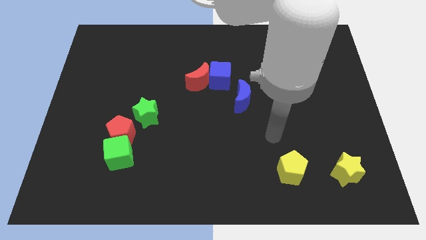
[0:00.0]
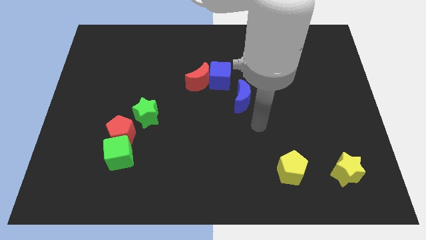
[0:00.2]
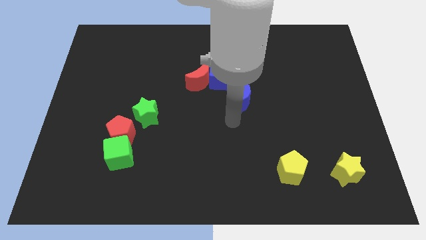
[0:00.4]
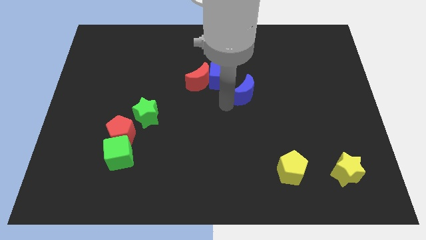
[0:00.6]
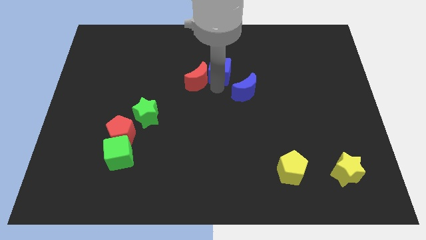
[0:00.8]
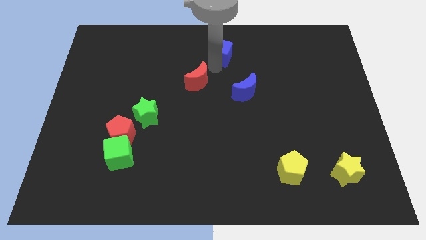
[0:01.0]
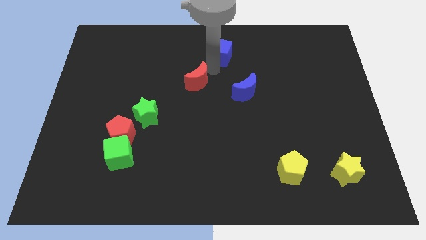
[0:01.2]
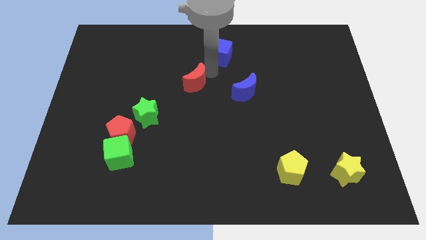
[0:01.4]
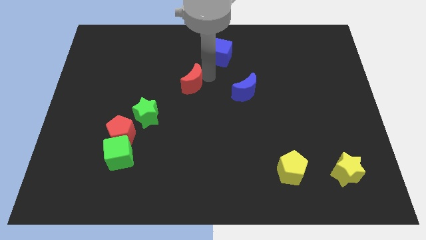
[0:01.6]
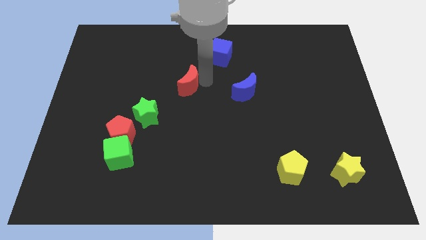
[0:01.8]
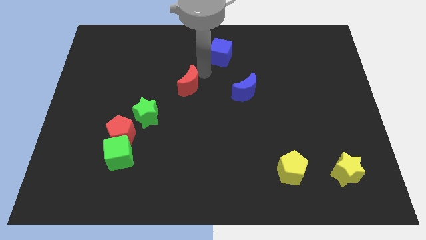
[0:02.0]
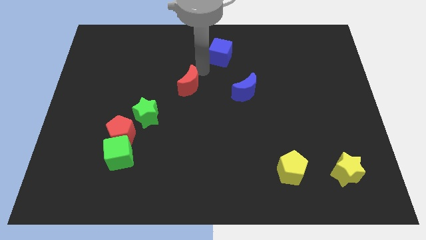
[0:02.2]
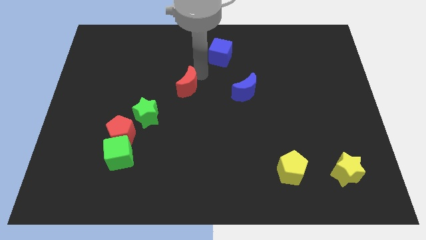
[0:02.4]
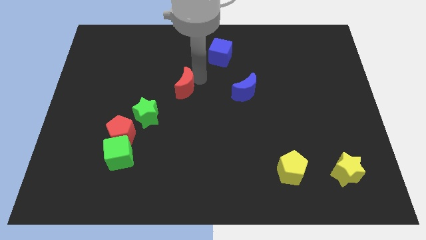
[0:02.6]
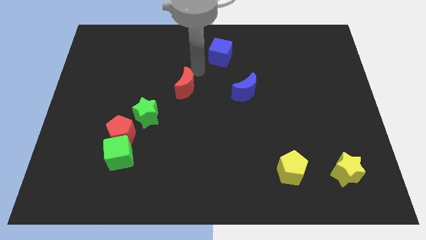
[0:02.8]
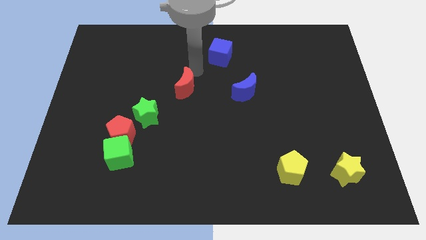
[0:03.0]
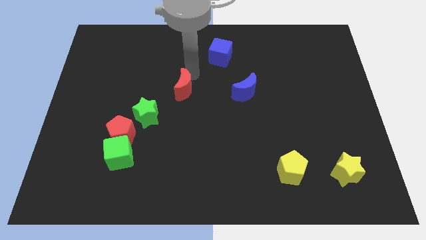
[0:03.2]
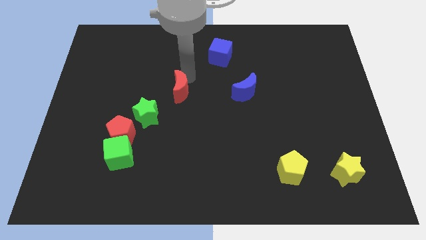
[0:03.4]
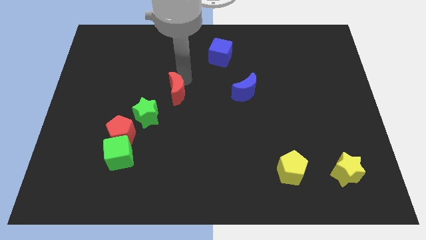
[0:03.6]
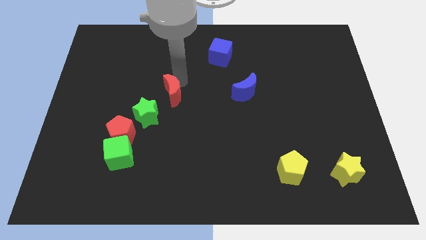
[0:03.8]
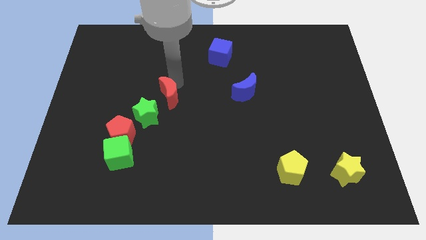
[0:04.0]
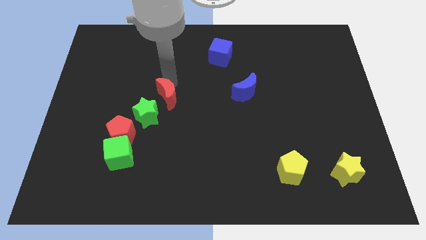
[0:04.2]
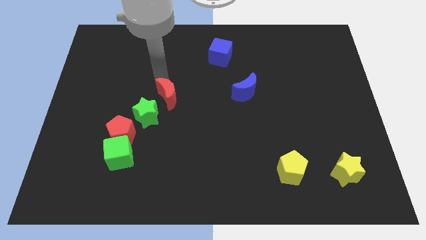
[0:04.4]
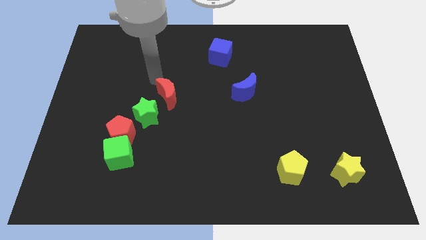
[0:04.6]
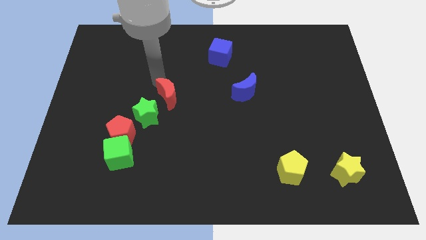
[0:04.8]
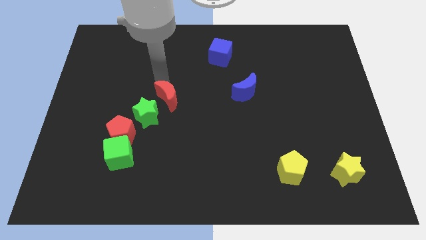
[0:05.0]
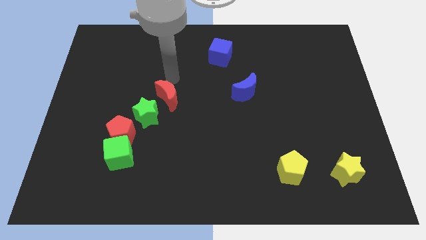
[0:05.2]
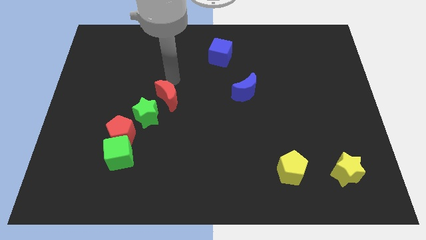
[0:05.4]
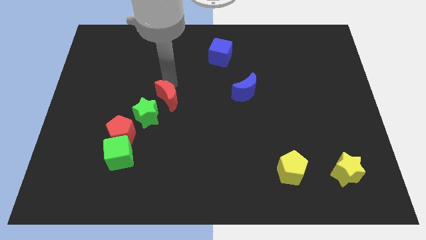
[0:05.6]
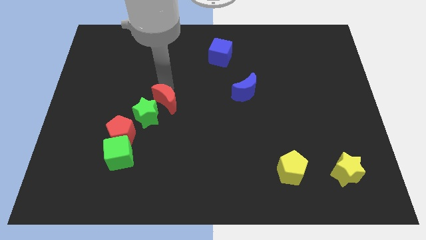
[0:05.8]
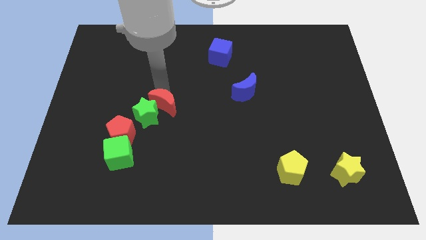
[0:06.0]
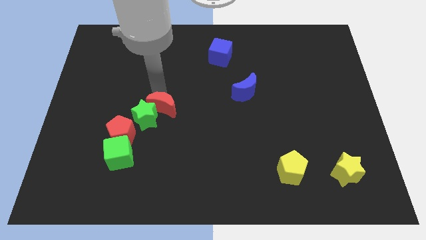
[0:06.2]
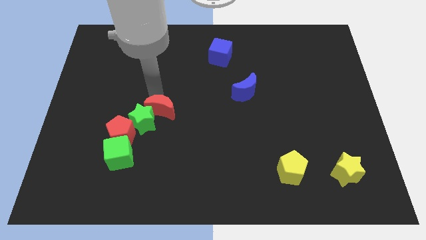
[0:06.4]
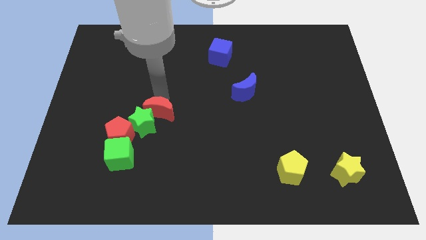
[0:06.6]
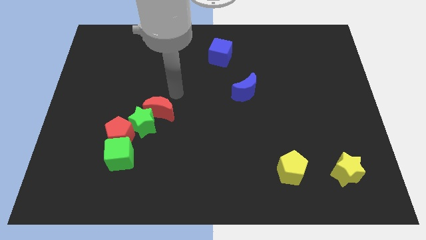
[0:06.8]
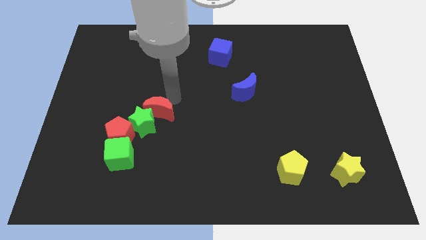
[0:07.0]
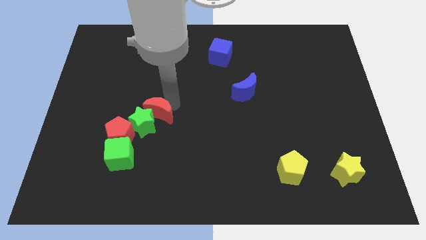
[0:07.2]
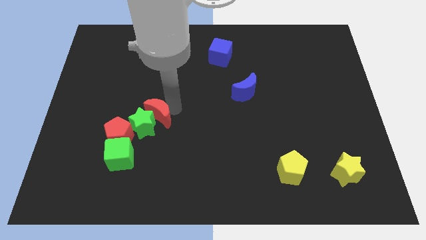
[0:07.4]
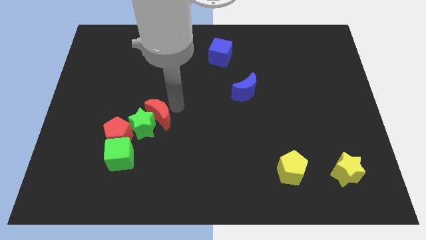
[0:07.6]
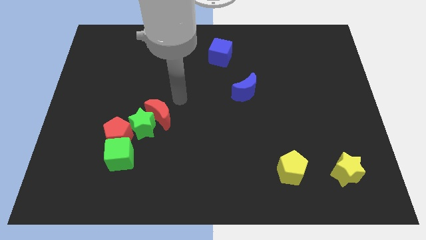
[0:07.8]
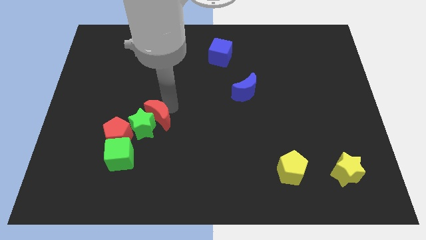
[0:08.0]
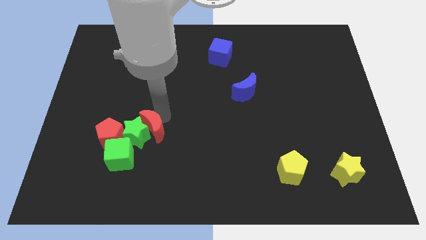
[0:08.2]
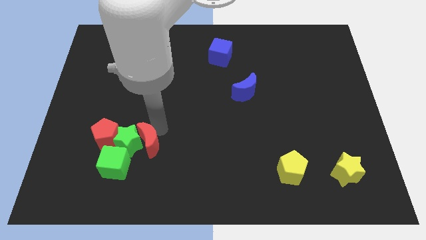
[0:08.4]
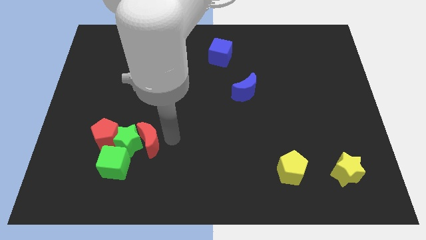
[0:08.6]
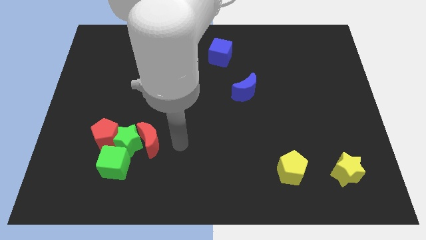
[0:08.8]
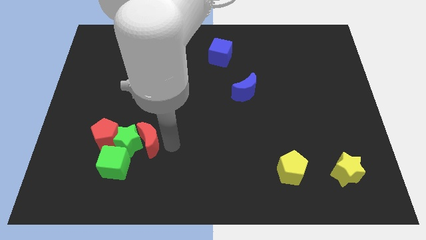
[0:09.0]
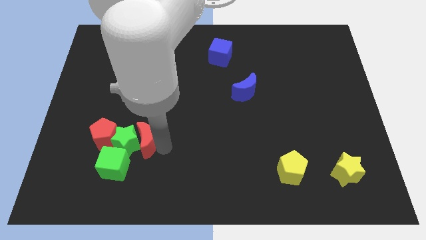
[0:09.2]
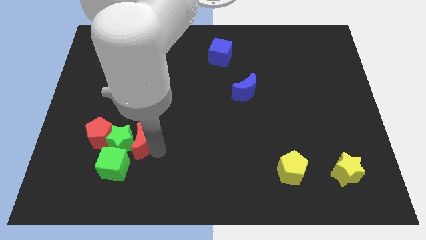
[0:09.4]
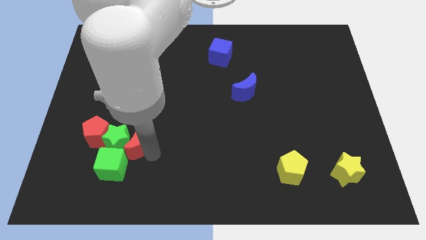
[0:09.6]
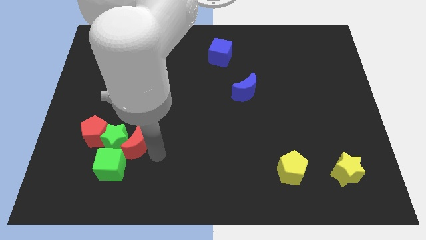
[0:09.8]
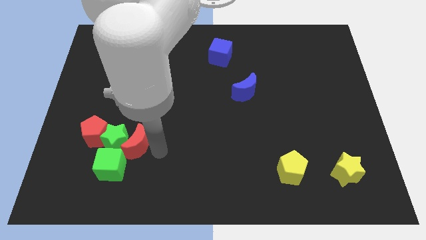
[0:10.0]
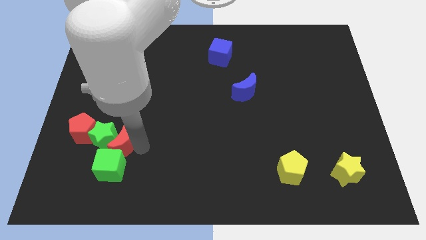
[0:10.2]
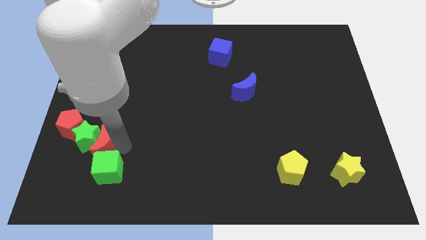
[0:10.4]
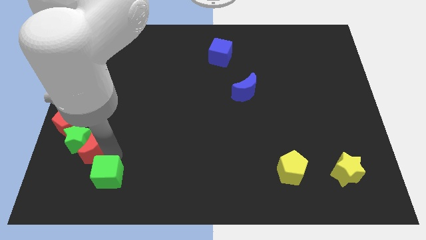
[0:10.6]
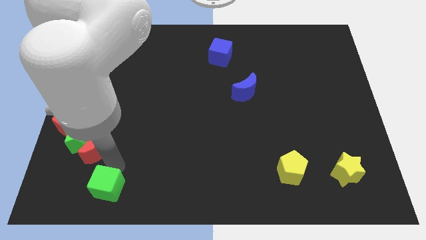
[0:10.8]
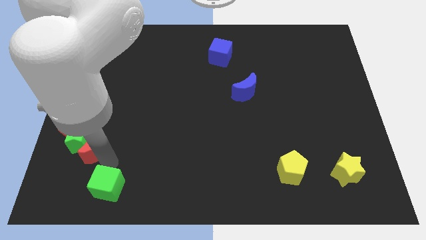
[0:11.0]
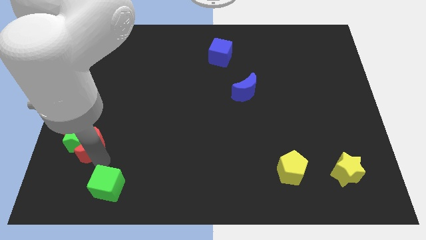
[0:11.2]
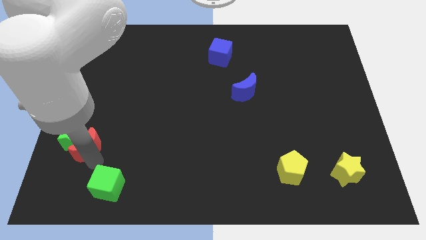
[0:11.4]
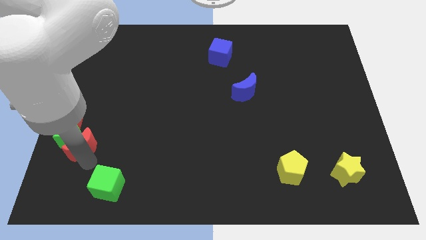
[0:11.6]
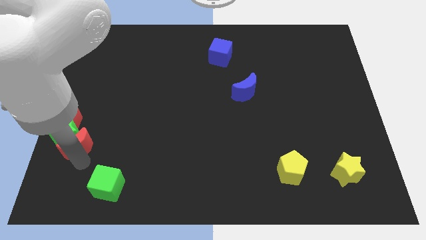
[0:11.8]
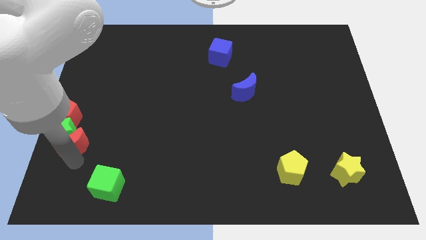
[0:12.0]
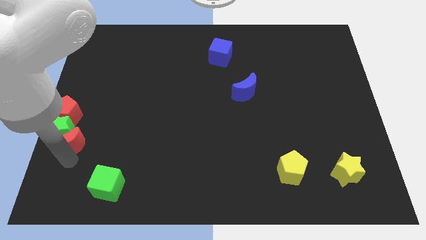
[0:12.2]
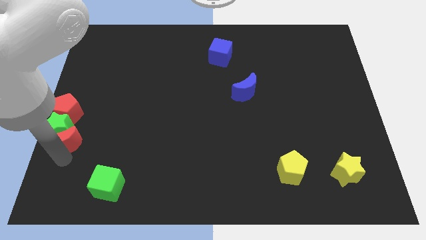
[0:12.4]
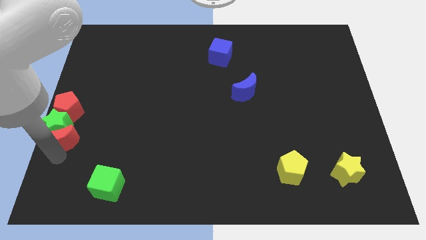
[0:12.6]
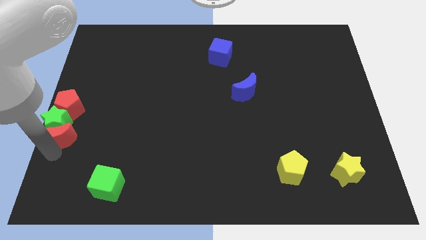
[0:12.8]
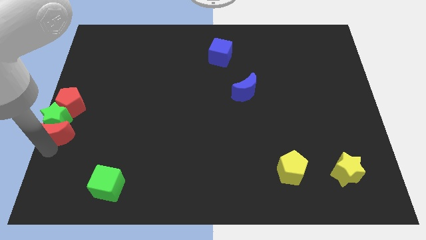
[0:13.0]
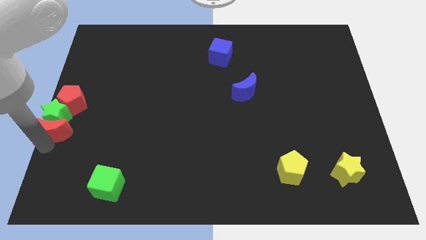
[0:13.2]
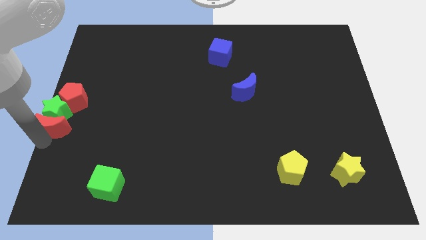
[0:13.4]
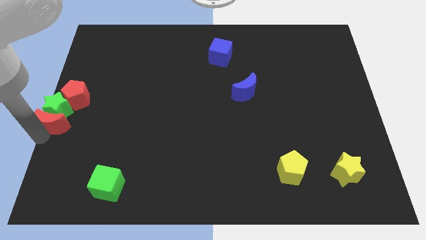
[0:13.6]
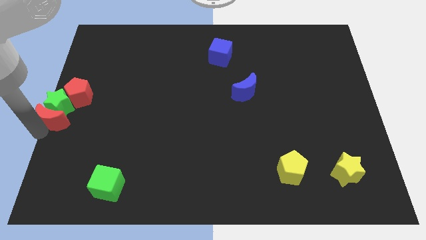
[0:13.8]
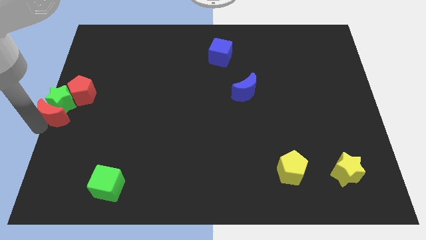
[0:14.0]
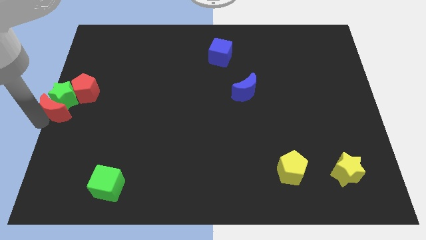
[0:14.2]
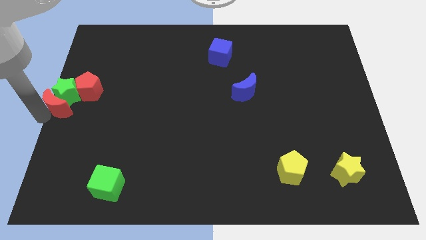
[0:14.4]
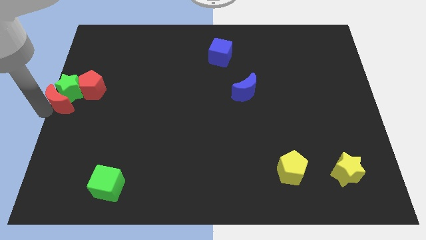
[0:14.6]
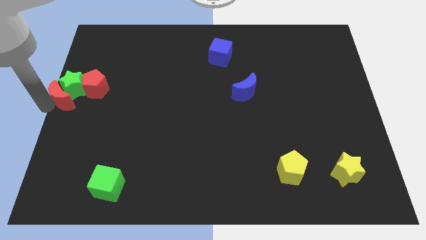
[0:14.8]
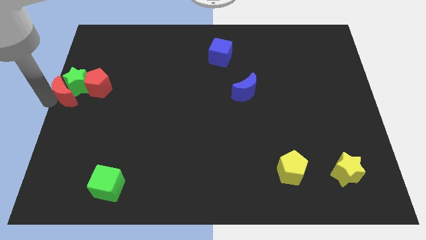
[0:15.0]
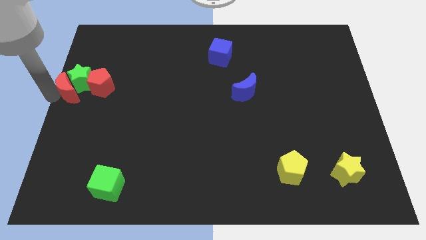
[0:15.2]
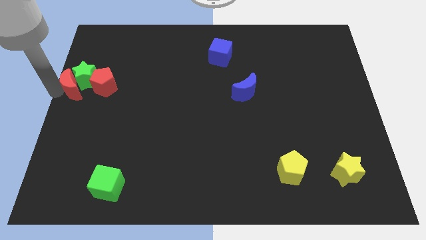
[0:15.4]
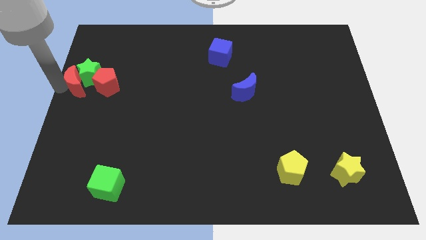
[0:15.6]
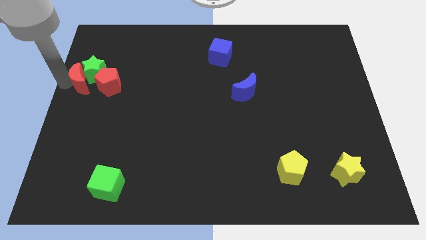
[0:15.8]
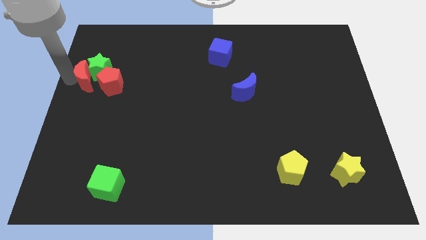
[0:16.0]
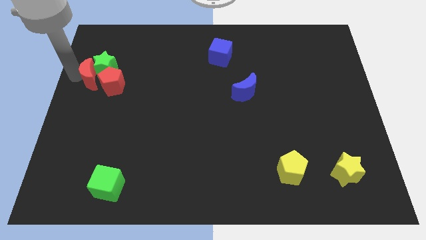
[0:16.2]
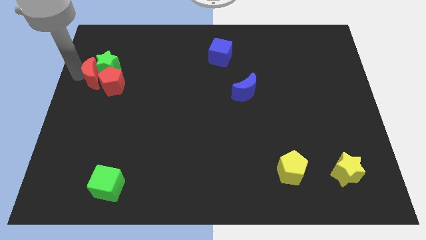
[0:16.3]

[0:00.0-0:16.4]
push the red moon next to the red pentagon
